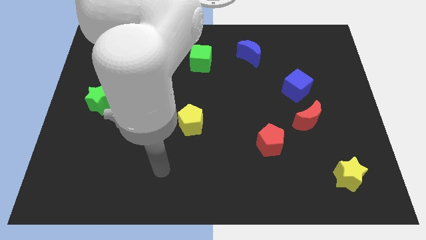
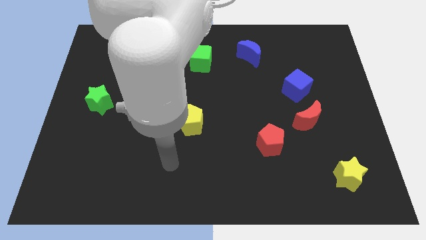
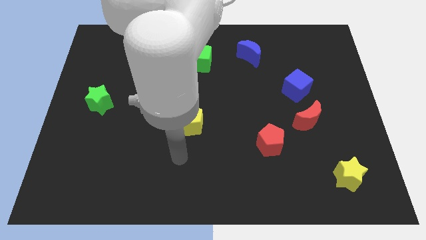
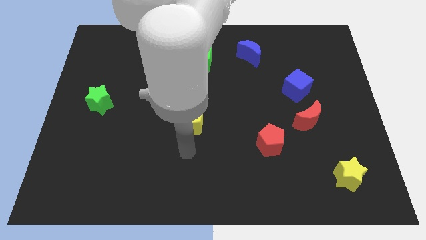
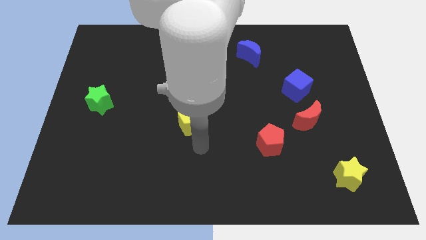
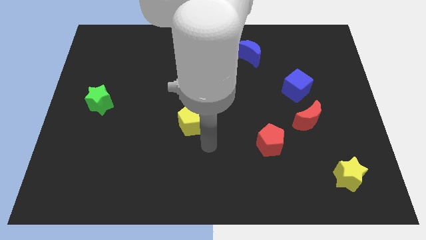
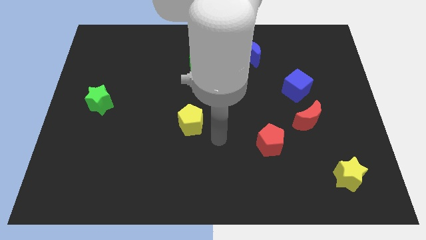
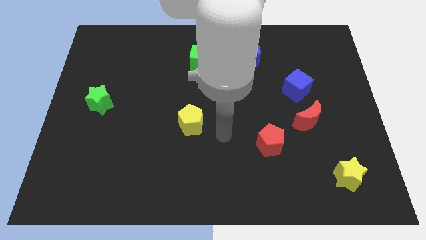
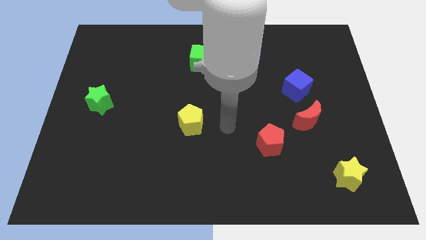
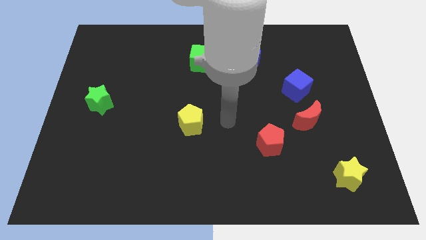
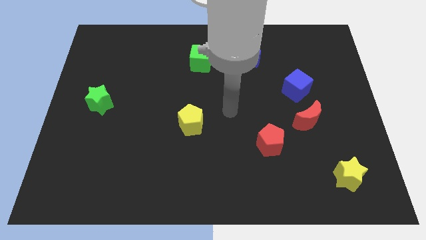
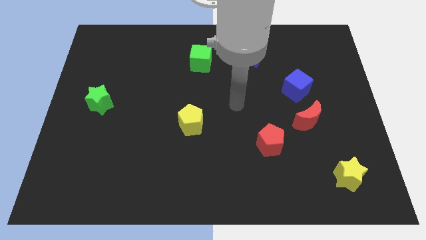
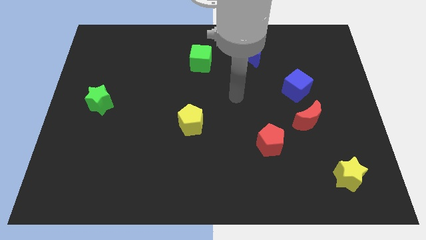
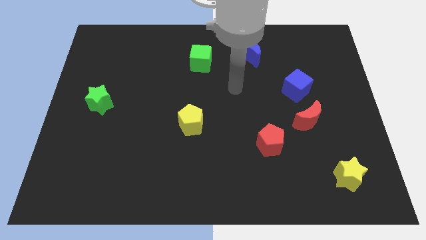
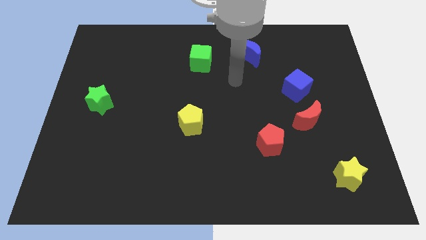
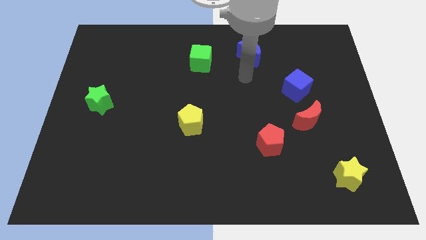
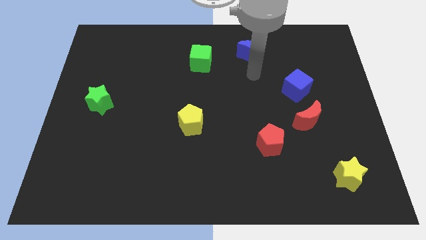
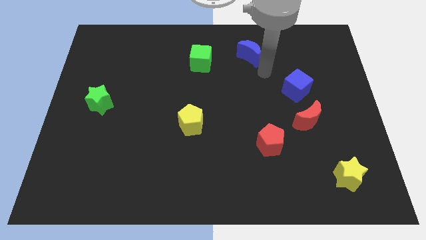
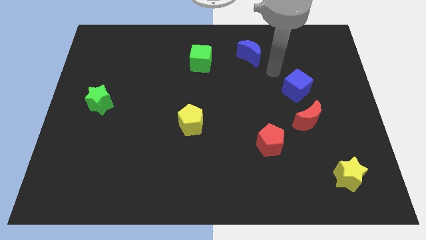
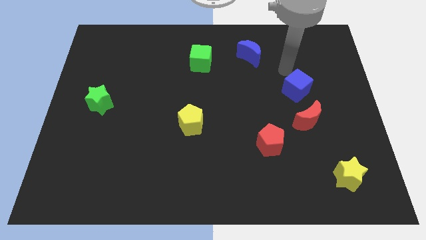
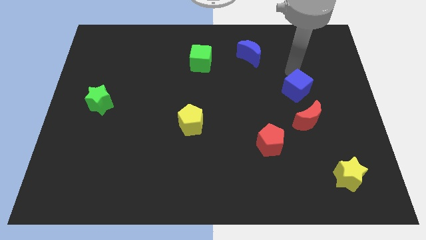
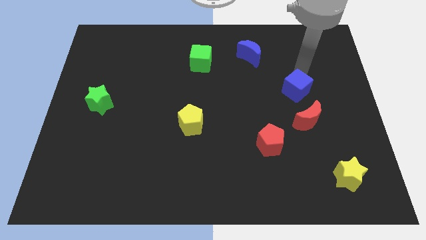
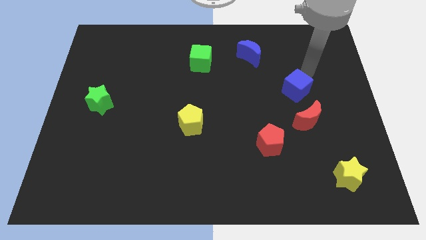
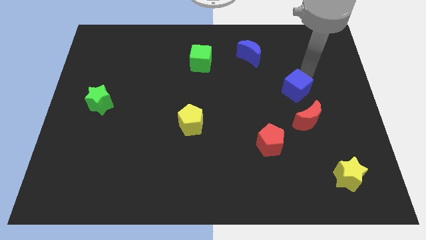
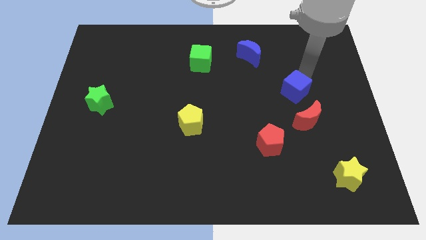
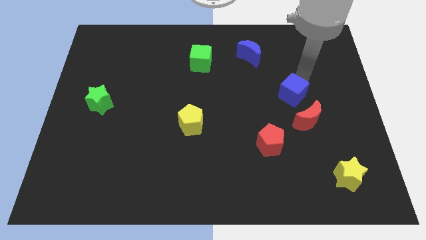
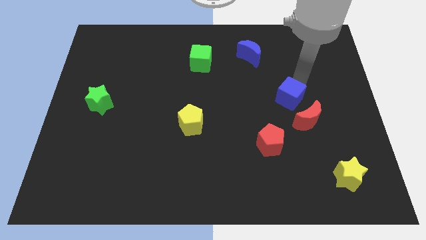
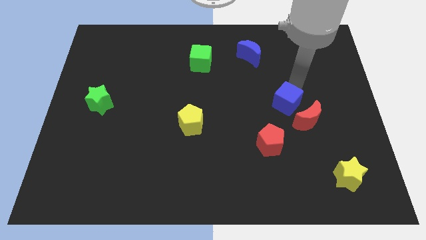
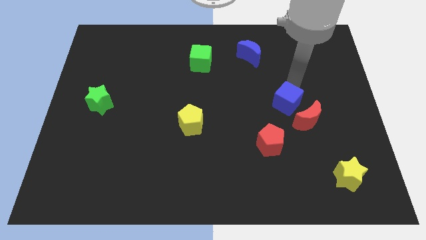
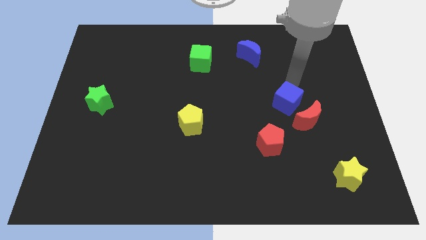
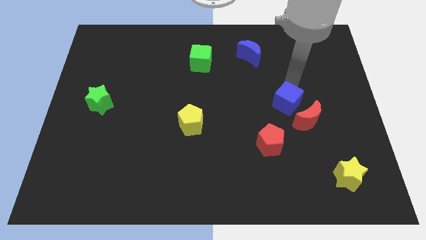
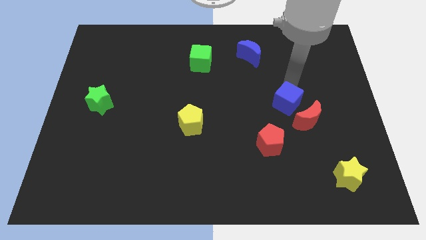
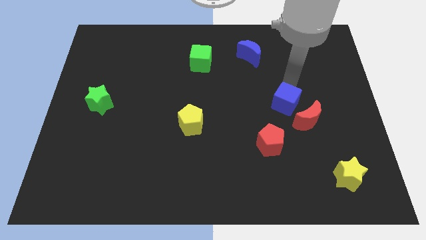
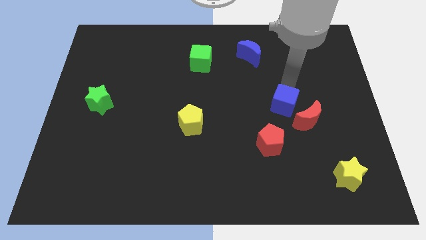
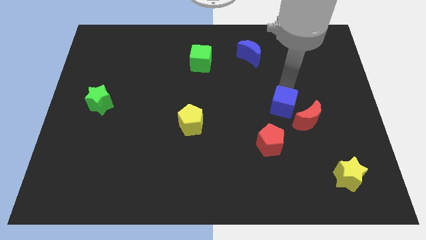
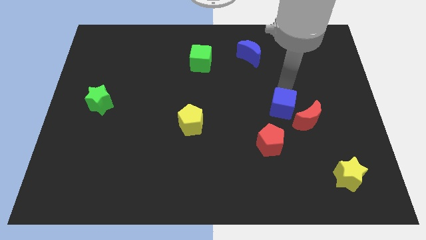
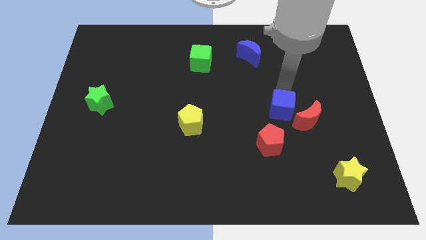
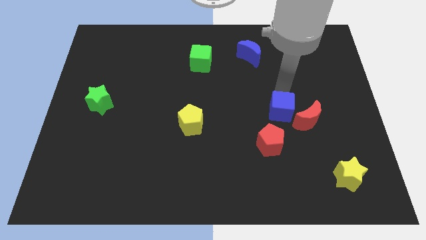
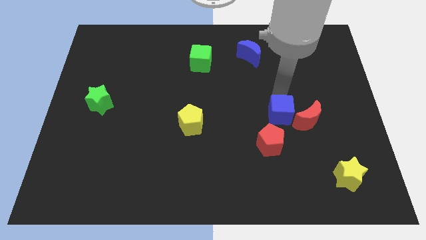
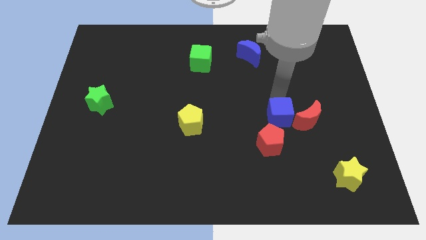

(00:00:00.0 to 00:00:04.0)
slightly push the blue cube down

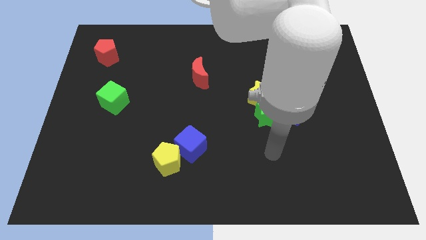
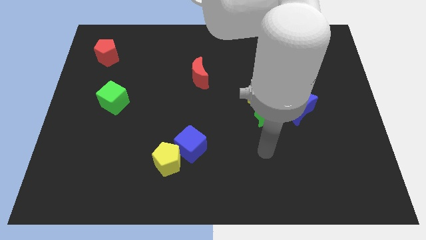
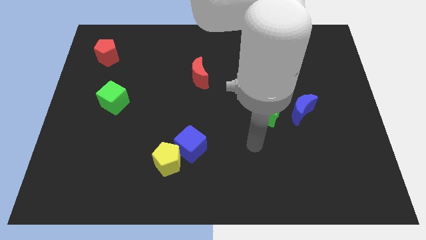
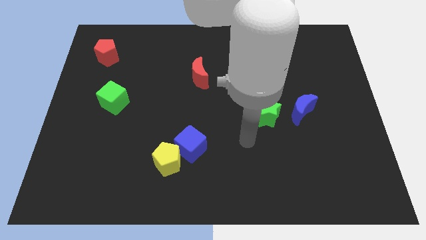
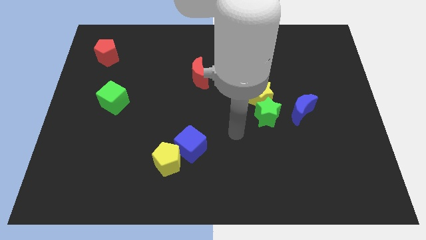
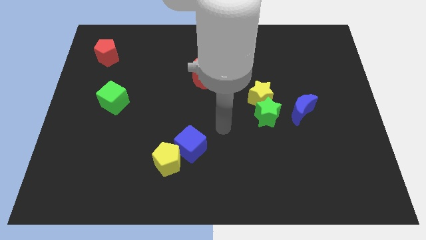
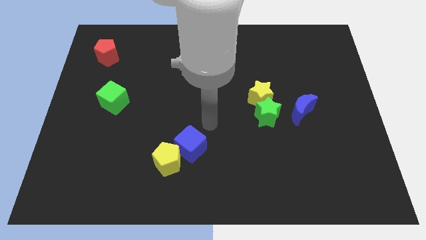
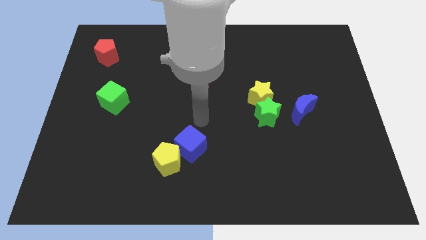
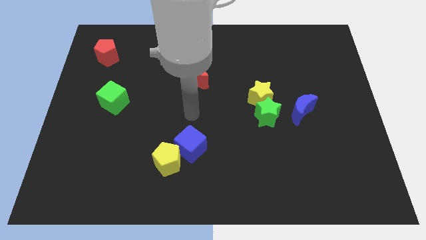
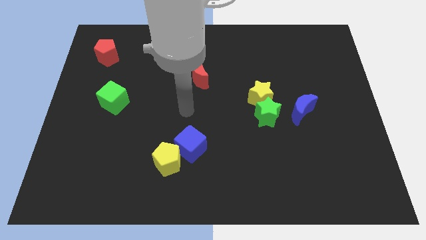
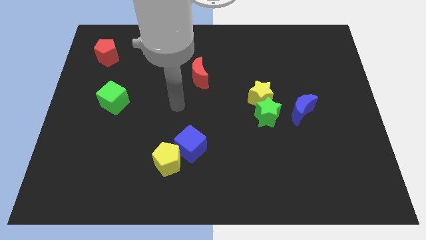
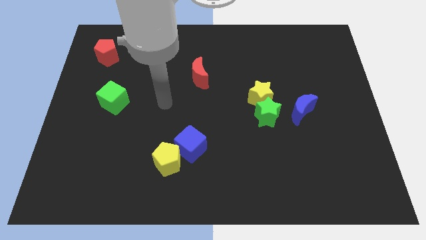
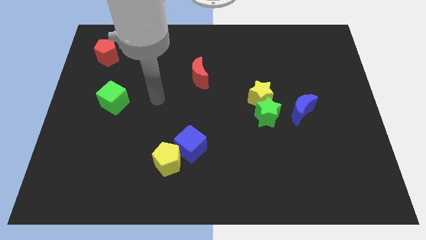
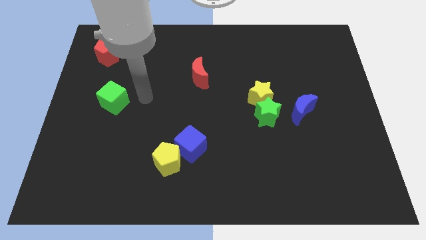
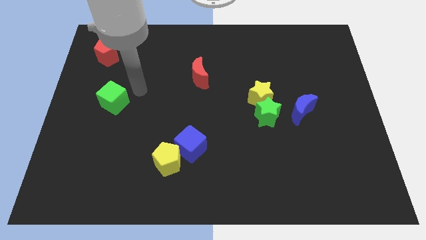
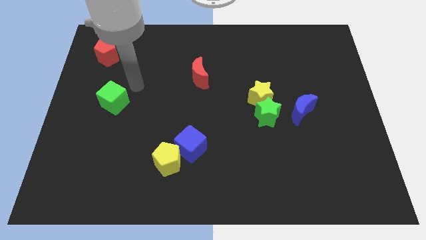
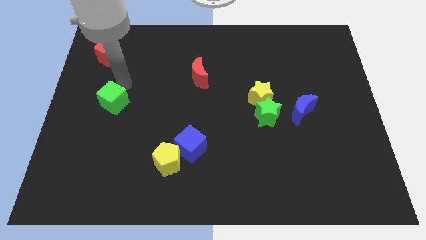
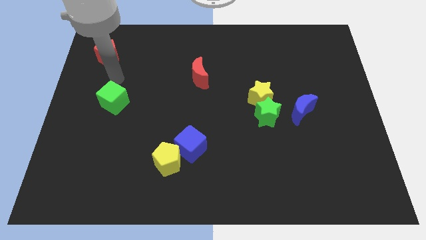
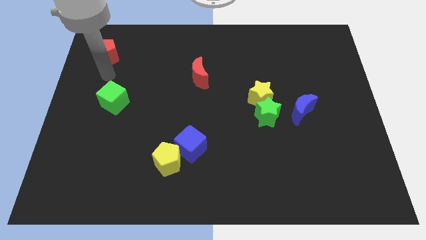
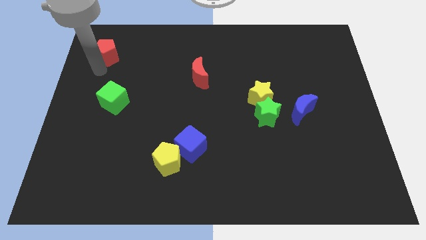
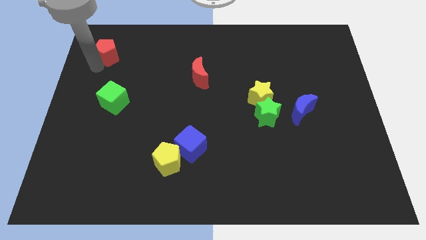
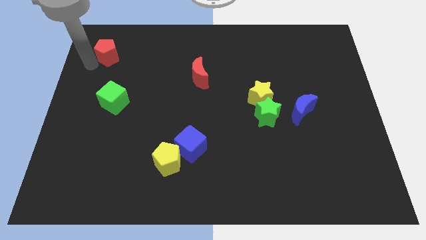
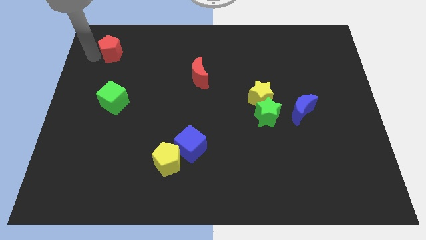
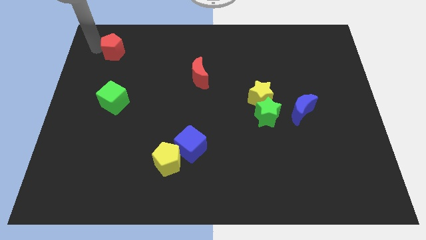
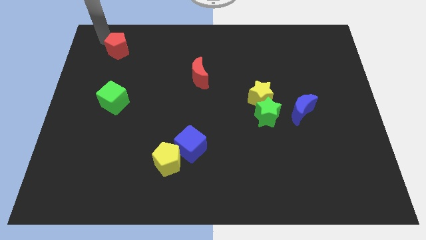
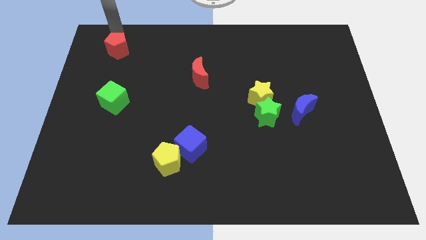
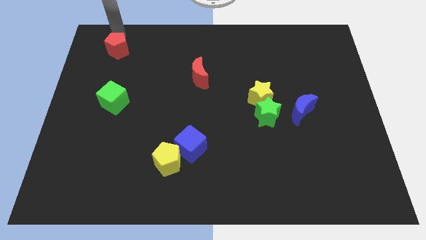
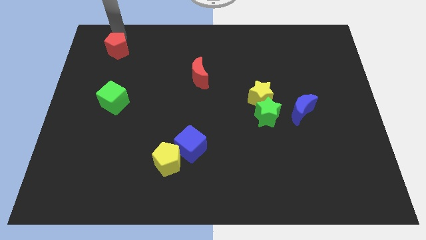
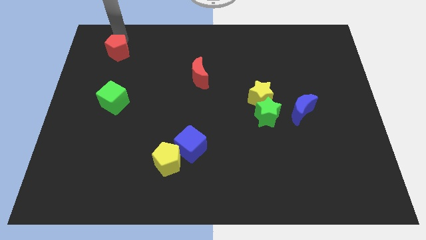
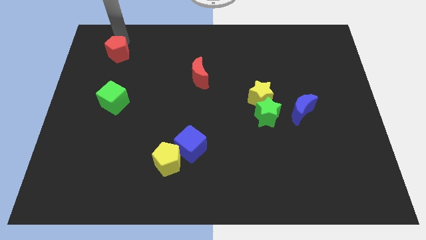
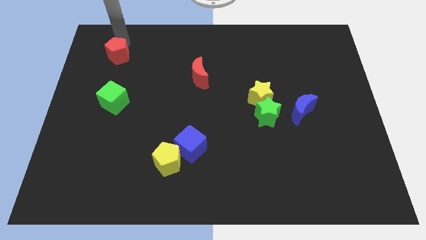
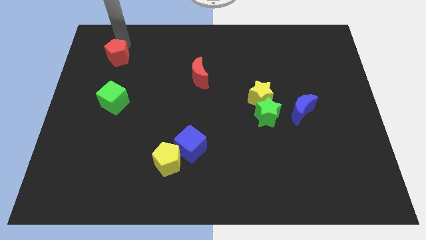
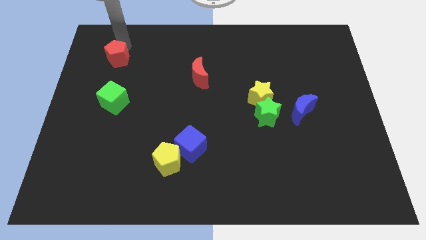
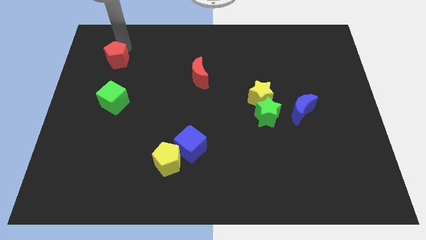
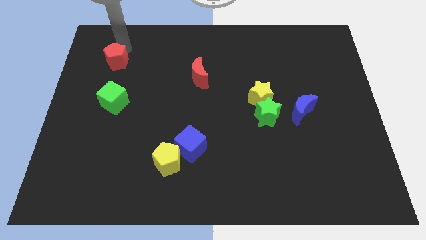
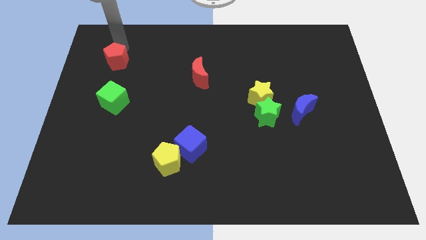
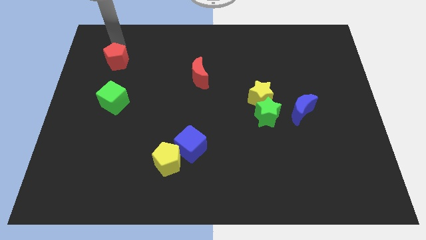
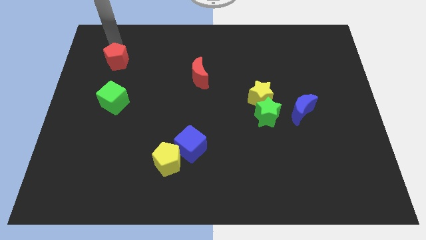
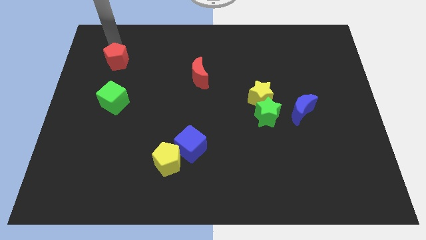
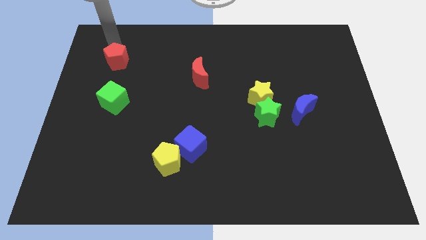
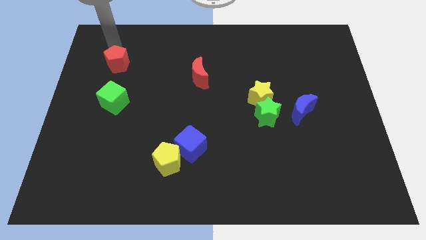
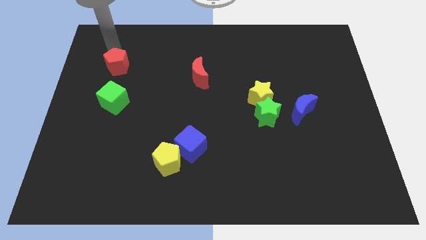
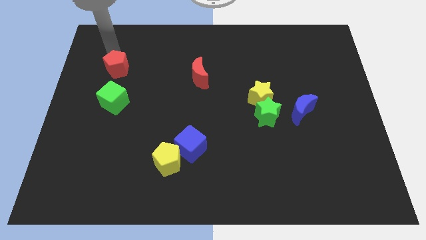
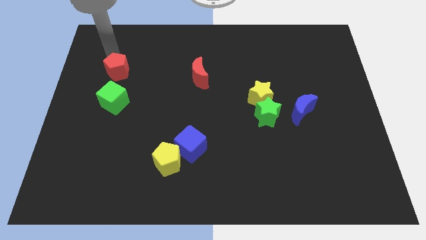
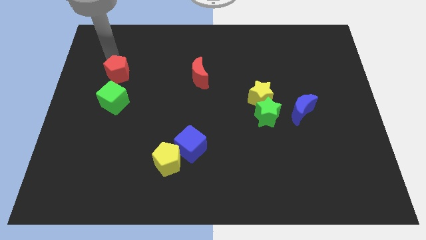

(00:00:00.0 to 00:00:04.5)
push the red pentagon diagonally down and right a little
